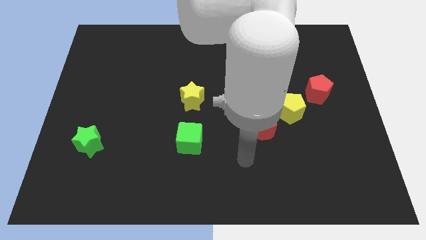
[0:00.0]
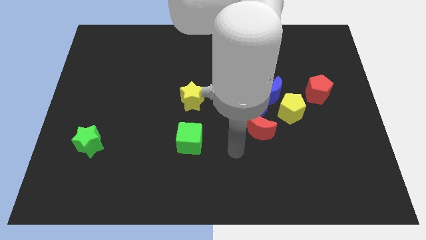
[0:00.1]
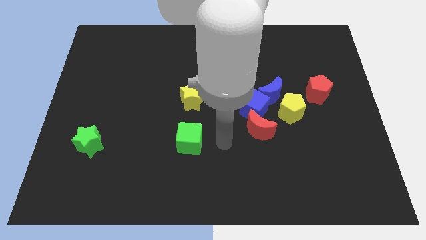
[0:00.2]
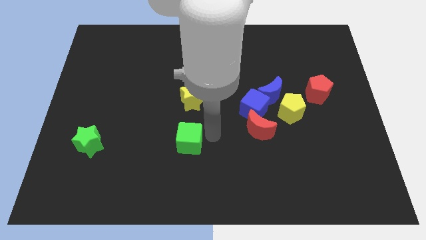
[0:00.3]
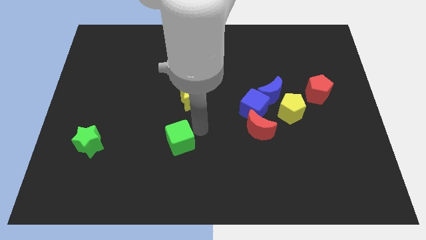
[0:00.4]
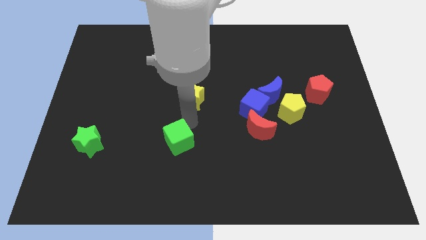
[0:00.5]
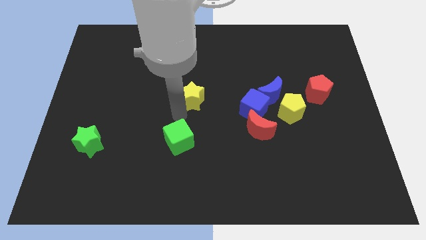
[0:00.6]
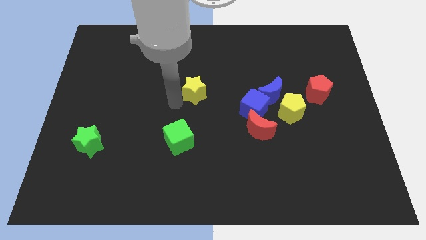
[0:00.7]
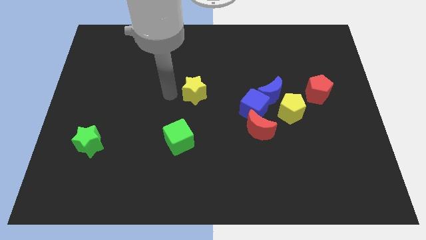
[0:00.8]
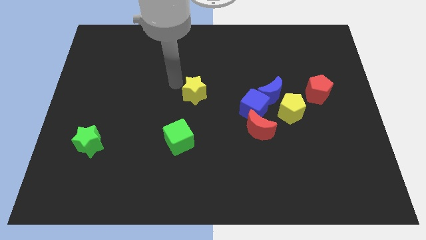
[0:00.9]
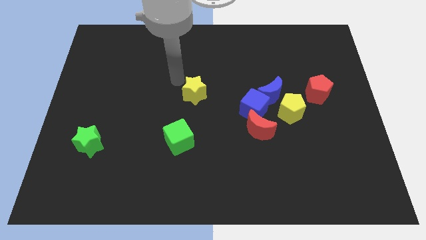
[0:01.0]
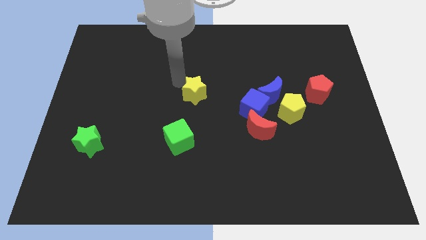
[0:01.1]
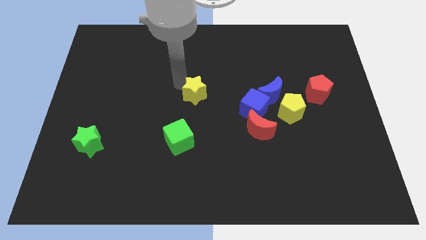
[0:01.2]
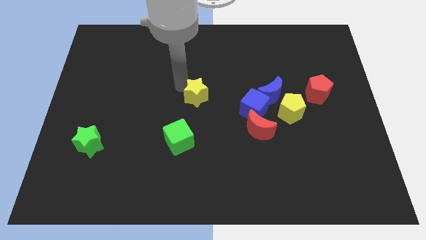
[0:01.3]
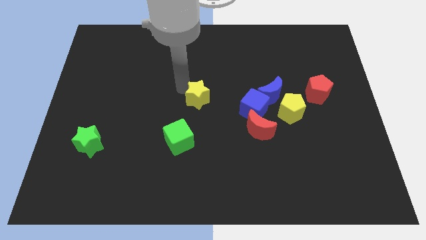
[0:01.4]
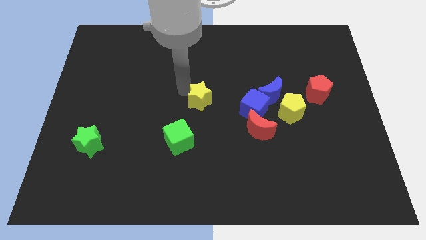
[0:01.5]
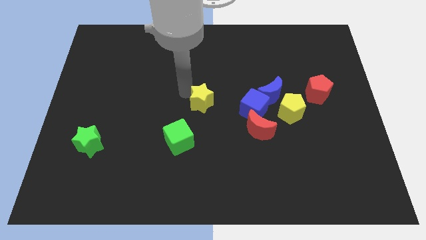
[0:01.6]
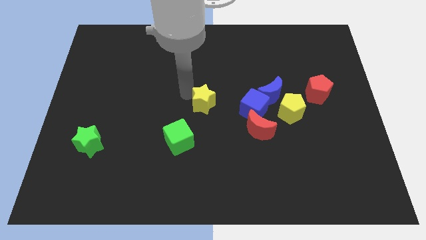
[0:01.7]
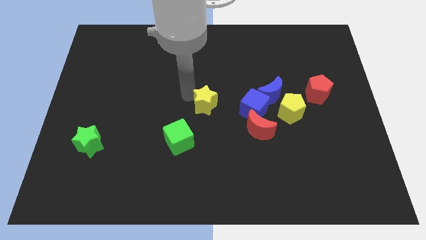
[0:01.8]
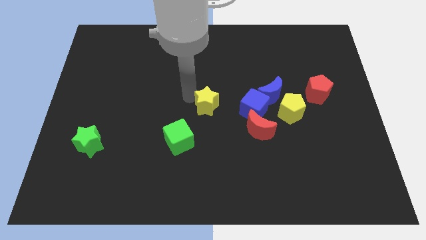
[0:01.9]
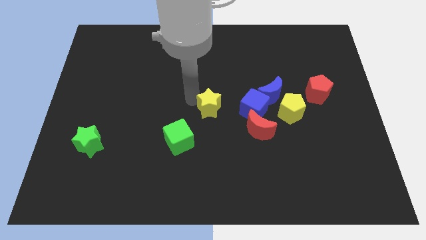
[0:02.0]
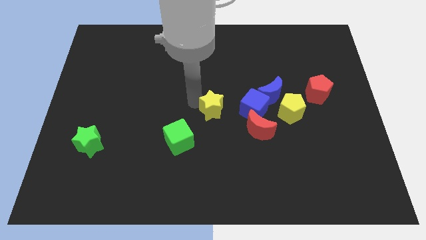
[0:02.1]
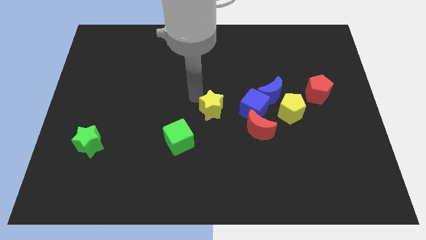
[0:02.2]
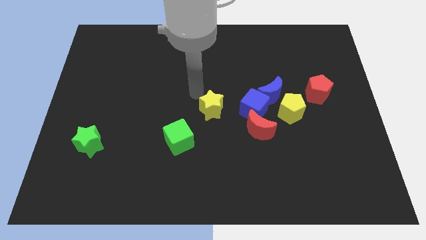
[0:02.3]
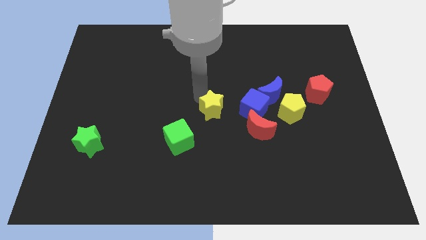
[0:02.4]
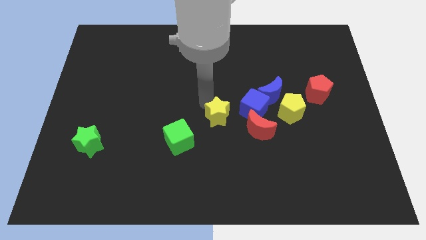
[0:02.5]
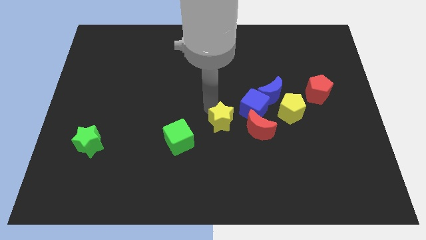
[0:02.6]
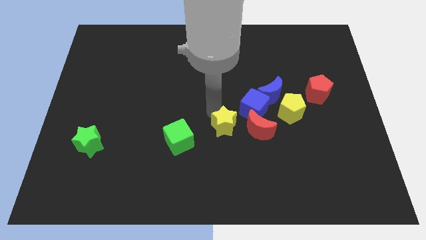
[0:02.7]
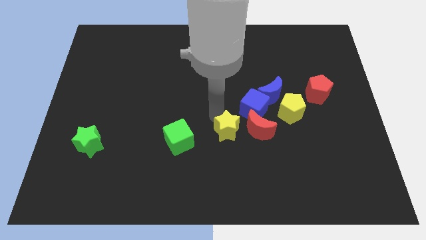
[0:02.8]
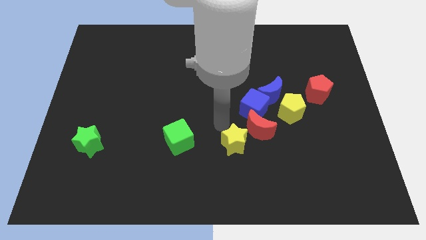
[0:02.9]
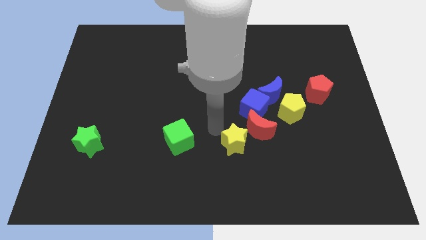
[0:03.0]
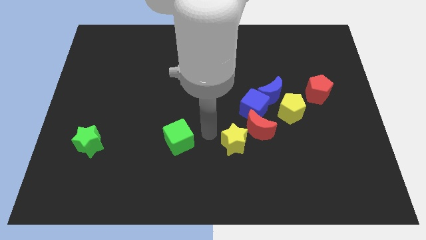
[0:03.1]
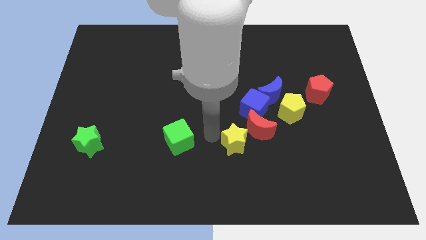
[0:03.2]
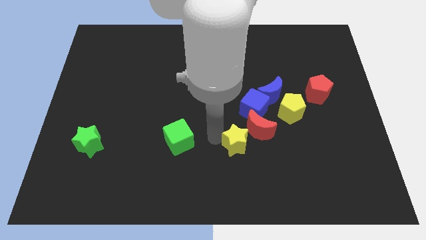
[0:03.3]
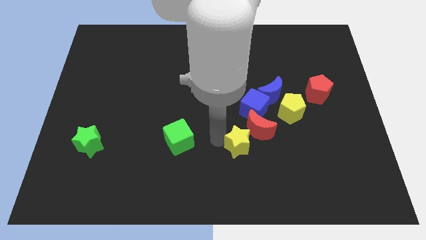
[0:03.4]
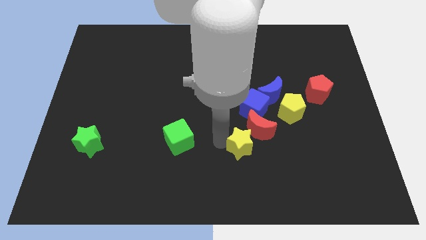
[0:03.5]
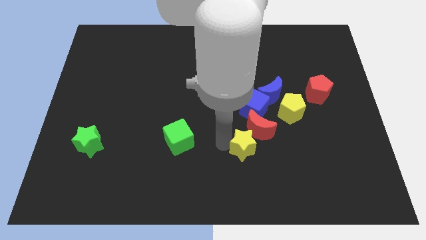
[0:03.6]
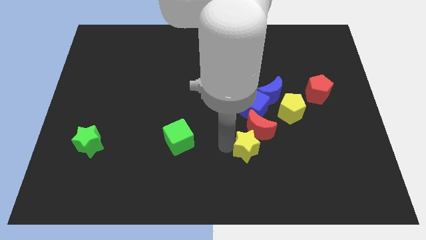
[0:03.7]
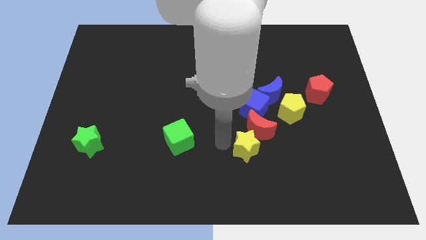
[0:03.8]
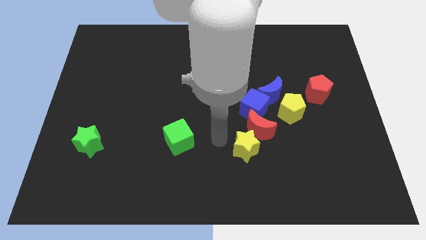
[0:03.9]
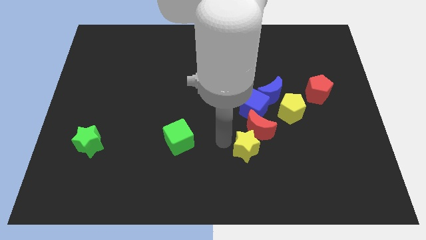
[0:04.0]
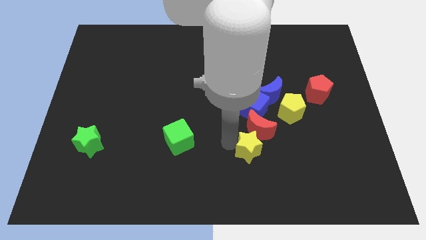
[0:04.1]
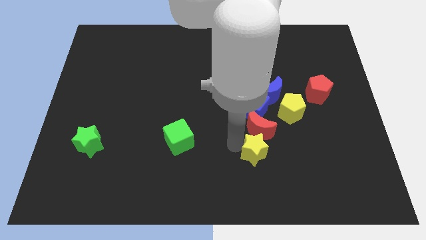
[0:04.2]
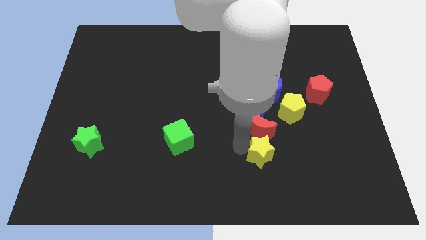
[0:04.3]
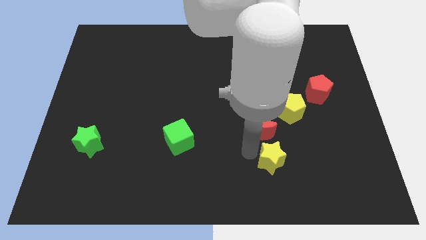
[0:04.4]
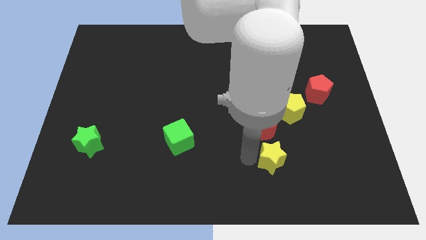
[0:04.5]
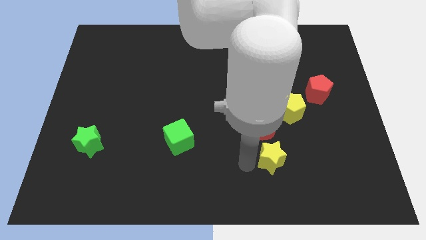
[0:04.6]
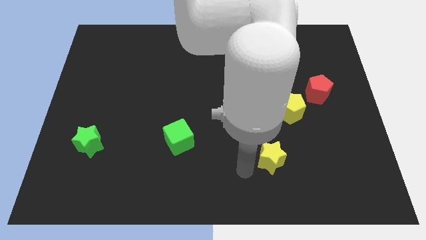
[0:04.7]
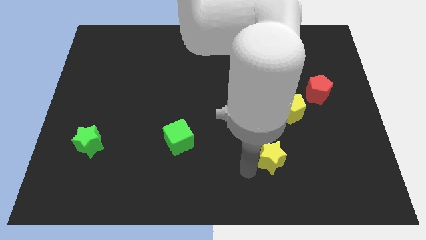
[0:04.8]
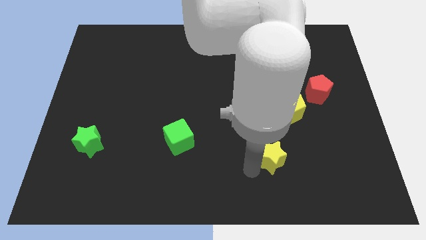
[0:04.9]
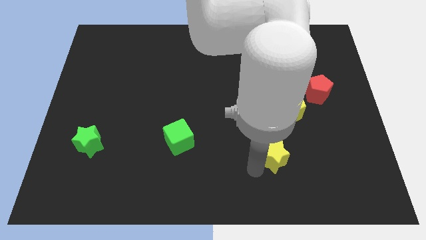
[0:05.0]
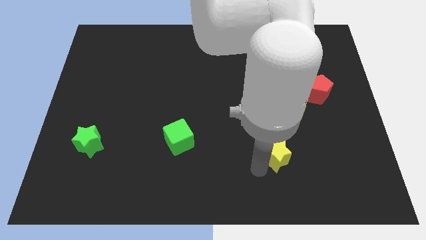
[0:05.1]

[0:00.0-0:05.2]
push the yellow star to the bottom side of the yellow pentagon

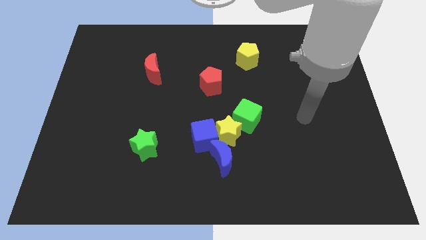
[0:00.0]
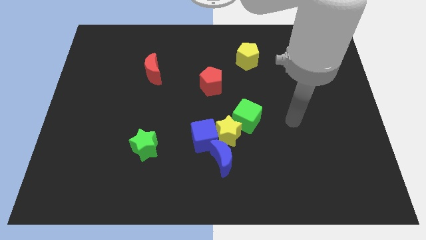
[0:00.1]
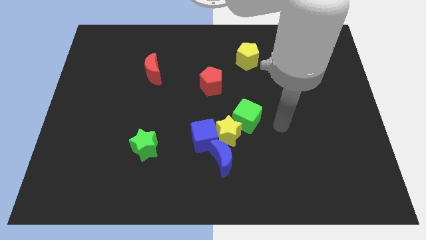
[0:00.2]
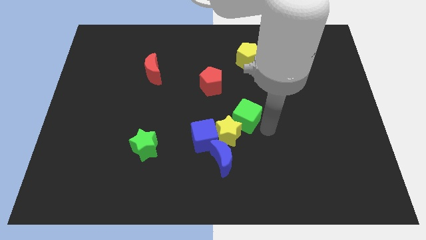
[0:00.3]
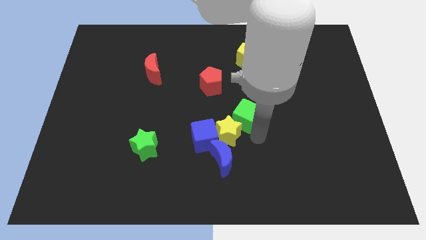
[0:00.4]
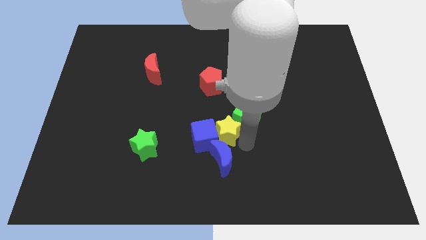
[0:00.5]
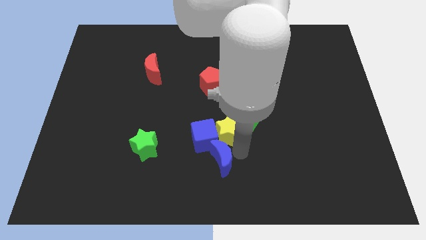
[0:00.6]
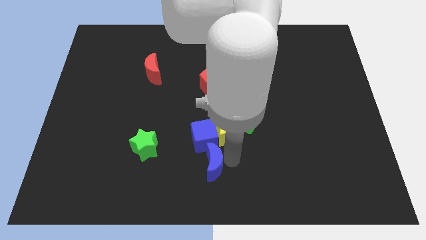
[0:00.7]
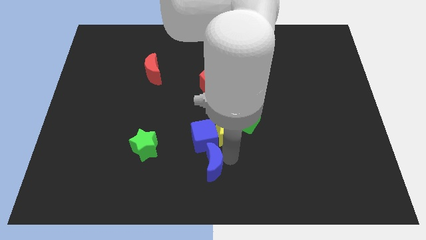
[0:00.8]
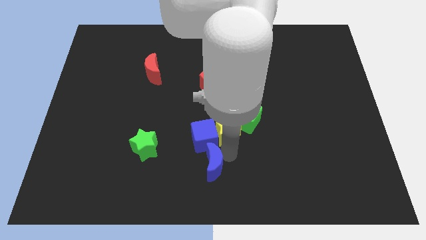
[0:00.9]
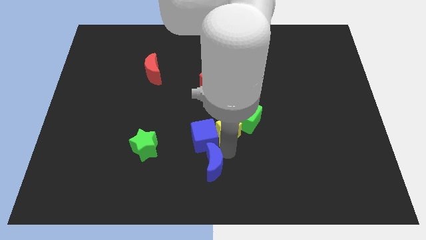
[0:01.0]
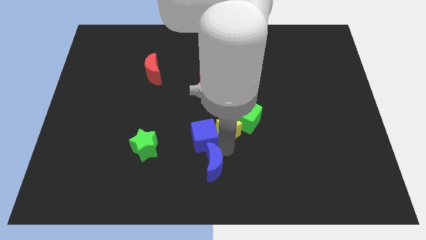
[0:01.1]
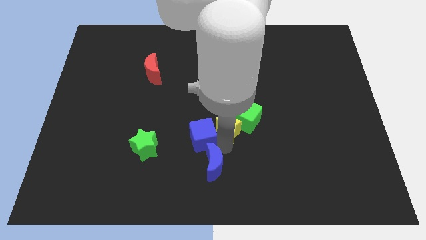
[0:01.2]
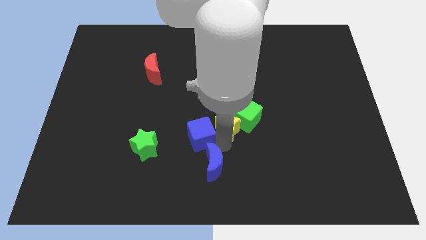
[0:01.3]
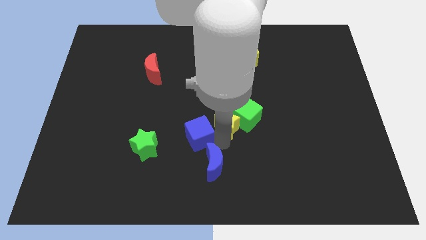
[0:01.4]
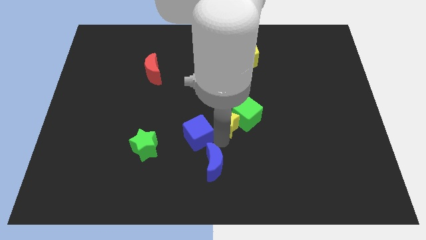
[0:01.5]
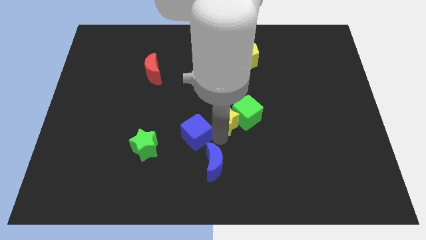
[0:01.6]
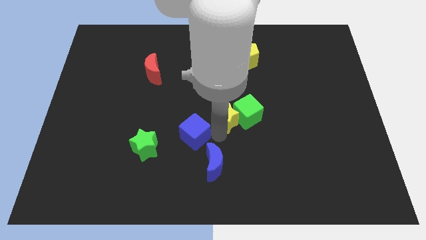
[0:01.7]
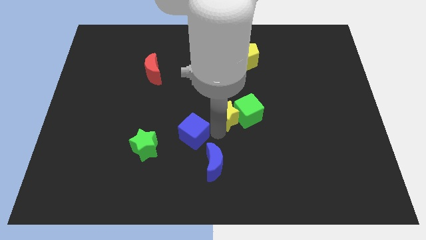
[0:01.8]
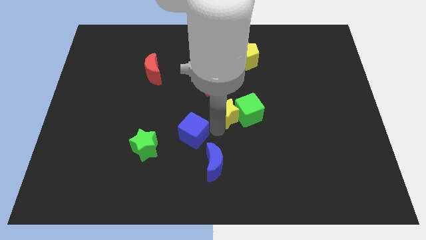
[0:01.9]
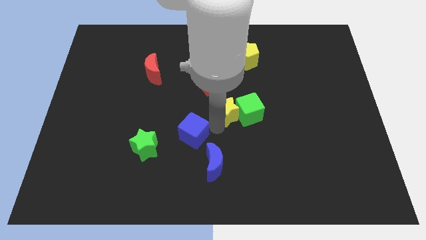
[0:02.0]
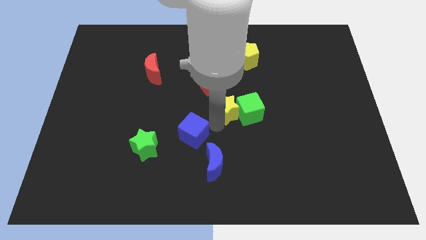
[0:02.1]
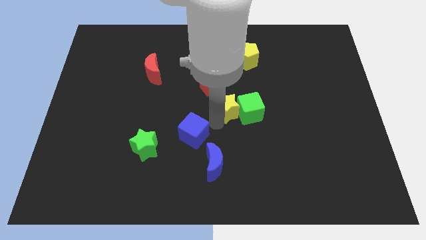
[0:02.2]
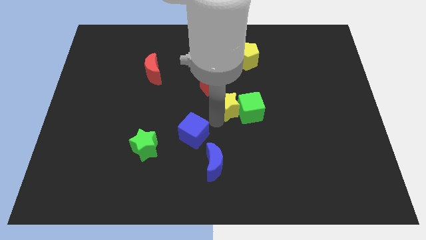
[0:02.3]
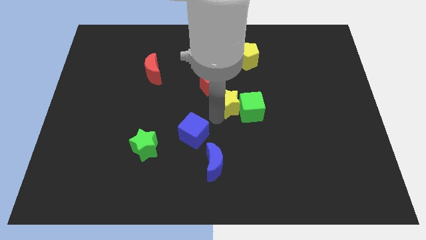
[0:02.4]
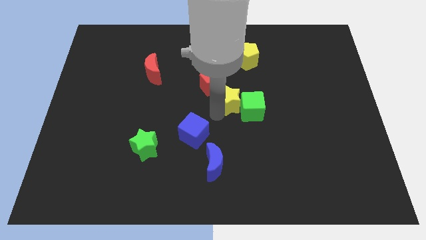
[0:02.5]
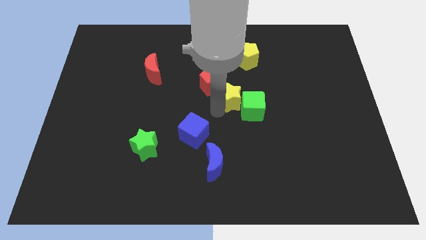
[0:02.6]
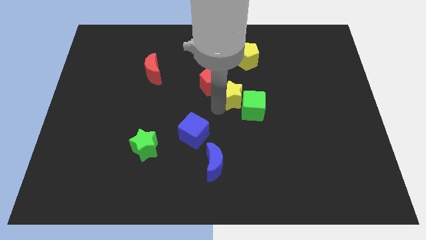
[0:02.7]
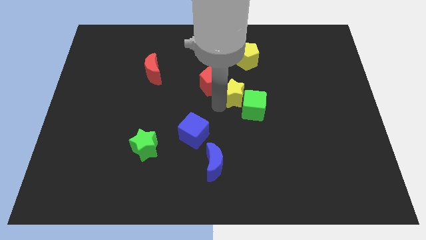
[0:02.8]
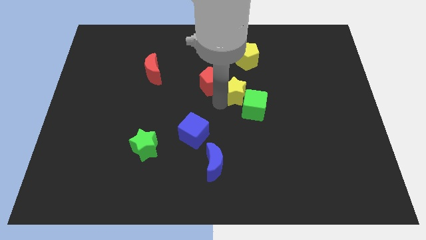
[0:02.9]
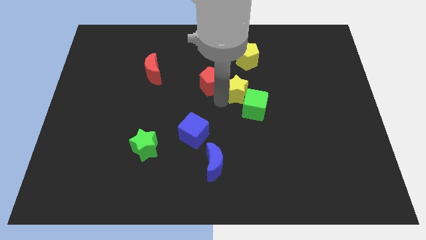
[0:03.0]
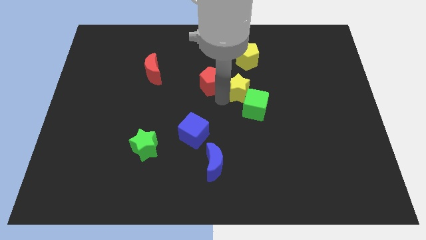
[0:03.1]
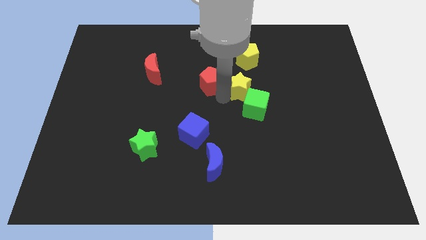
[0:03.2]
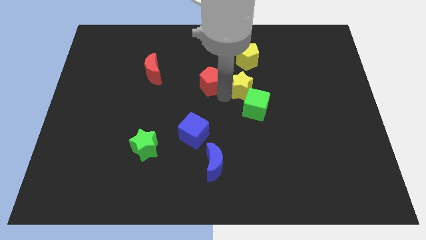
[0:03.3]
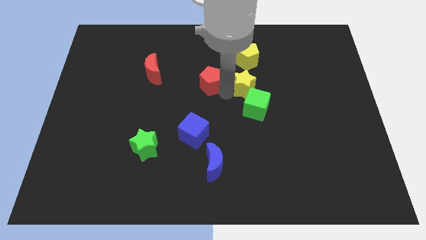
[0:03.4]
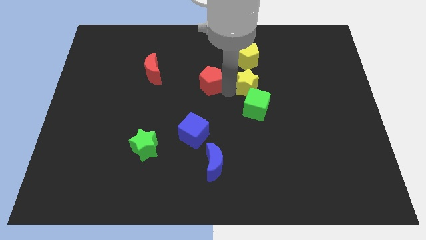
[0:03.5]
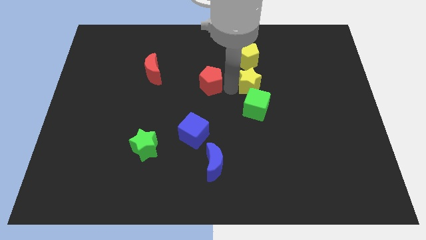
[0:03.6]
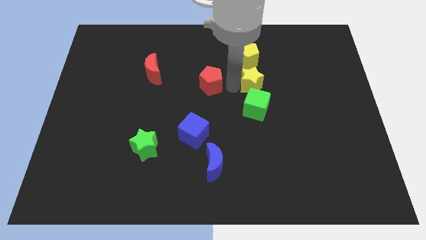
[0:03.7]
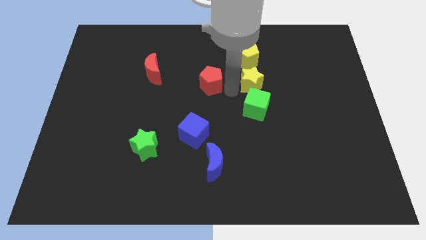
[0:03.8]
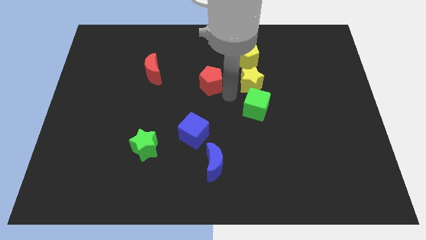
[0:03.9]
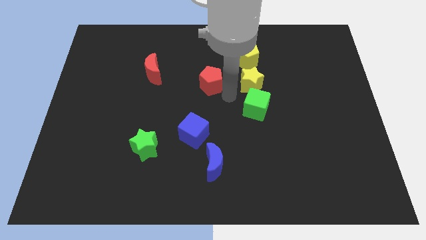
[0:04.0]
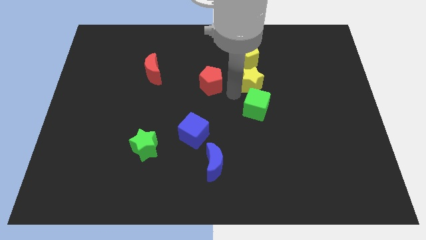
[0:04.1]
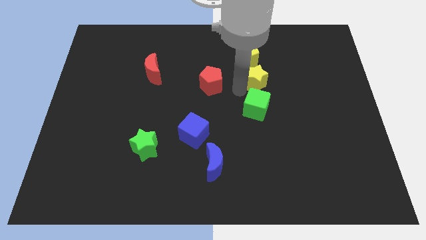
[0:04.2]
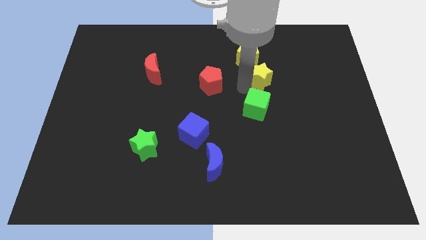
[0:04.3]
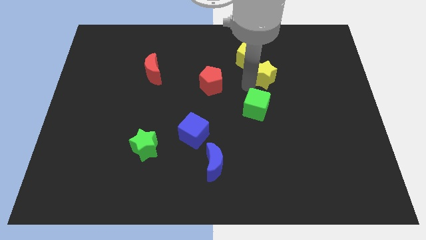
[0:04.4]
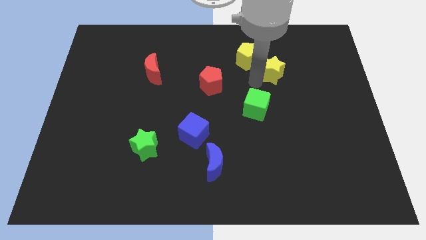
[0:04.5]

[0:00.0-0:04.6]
push the yellow star to the right side of the yellow pentagon
